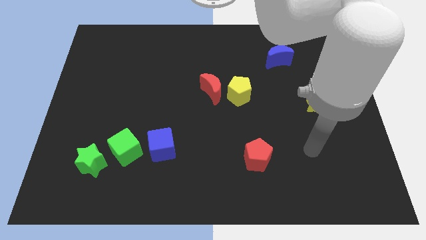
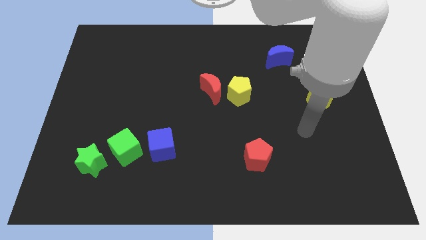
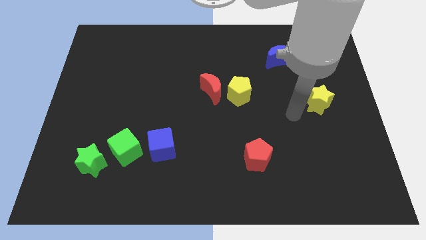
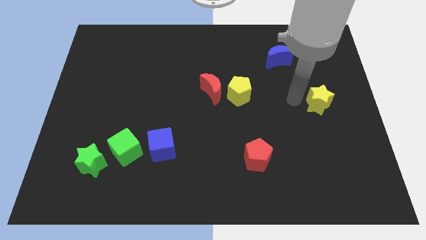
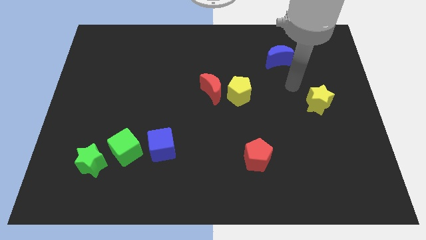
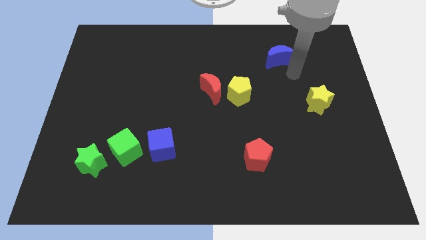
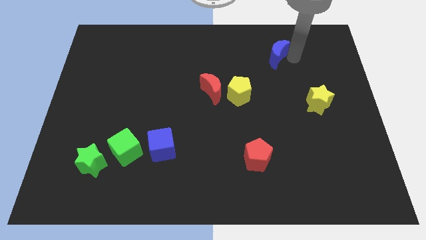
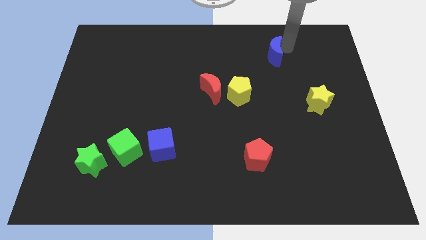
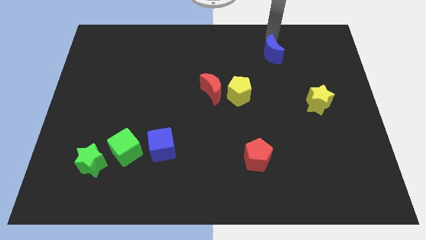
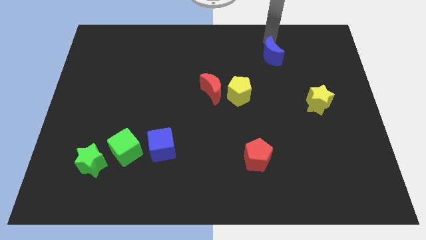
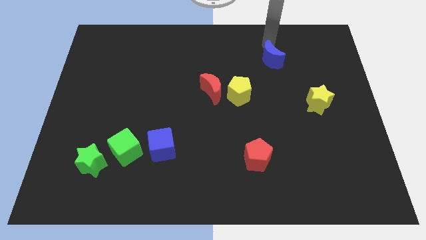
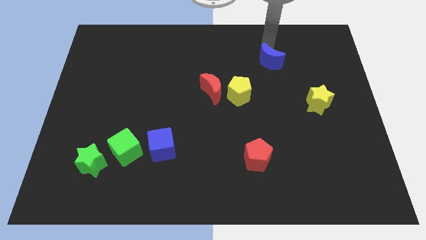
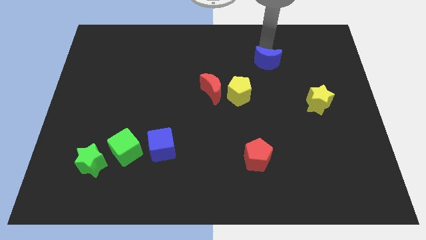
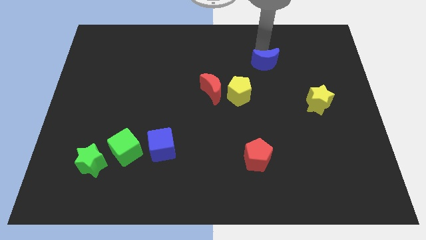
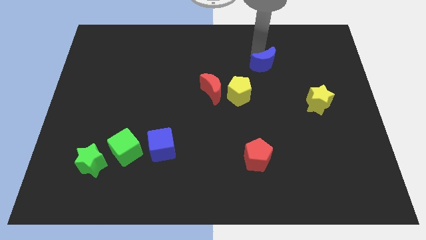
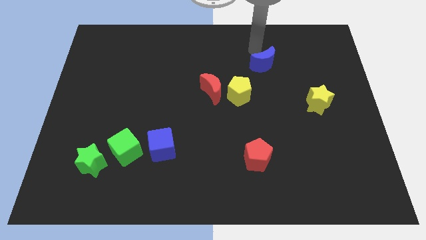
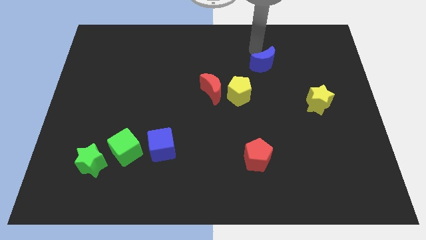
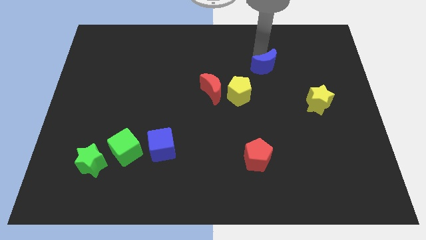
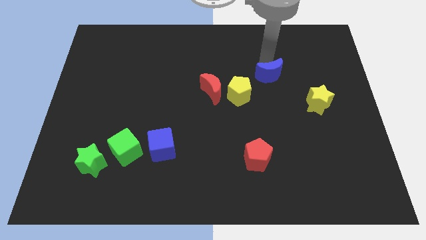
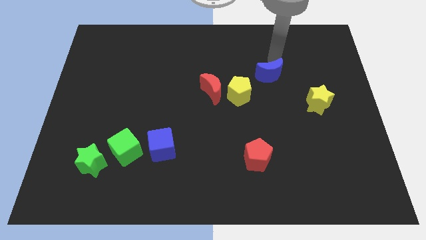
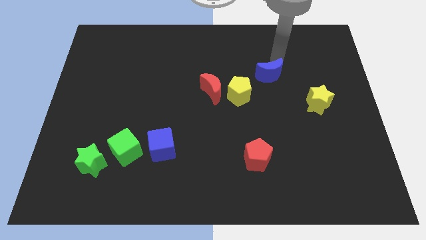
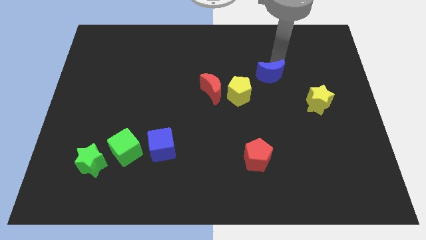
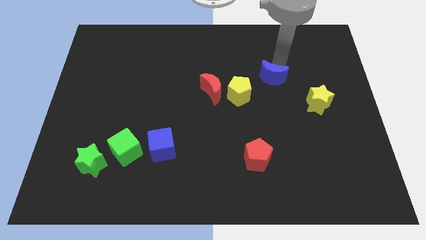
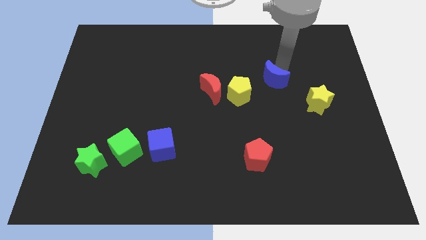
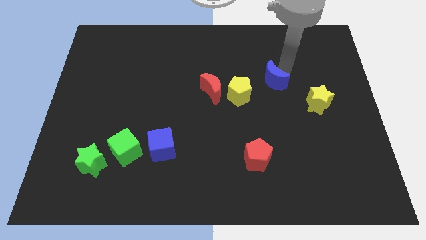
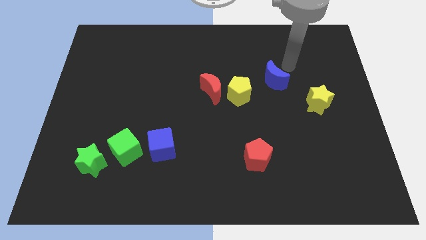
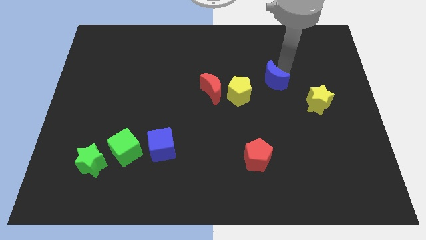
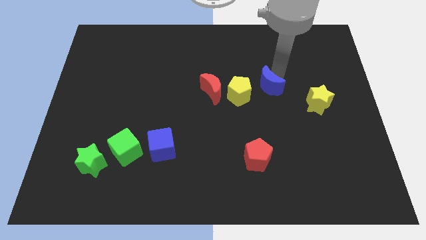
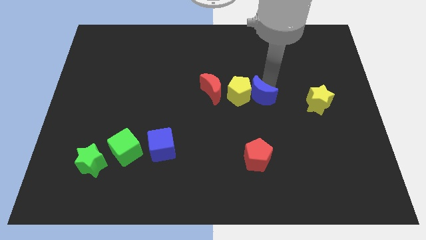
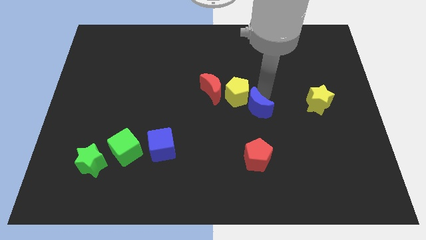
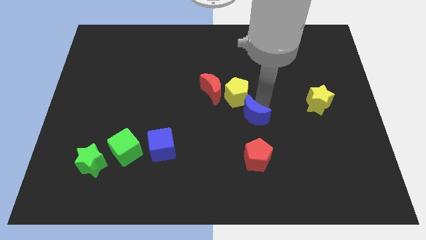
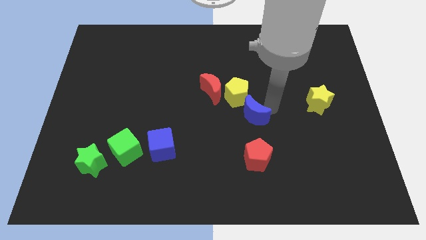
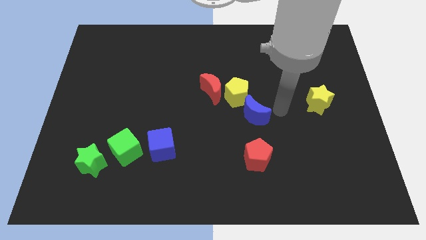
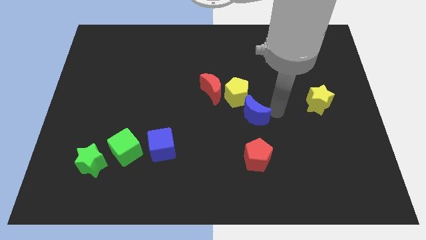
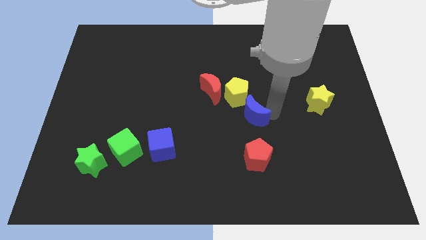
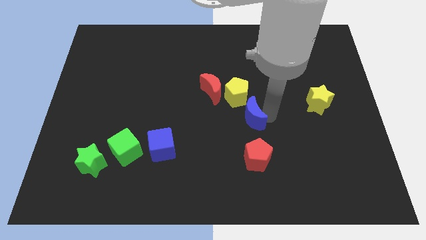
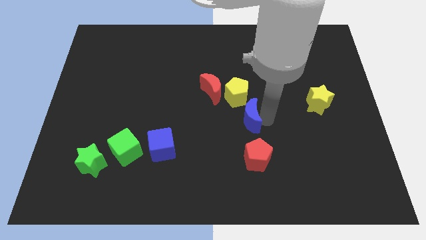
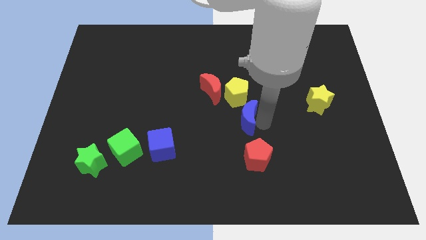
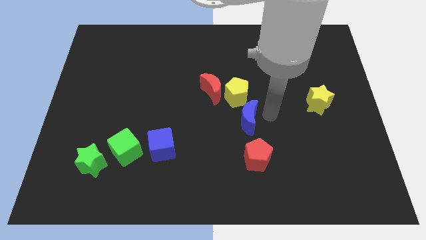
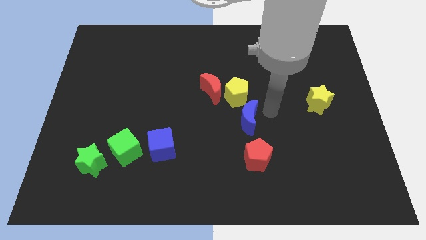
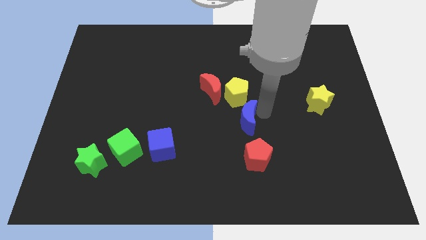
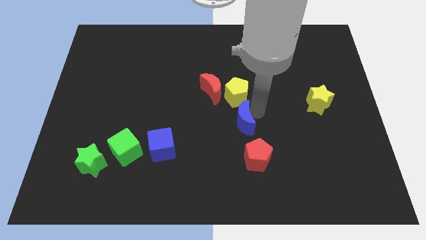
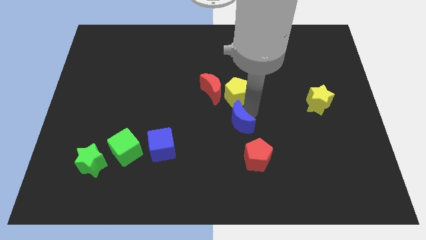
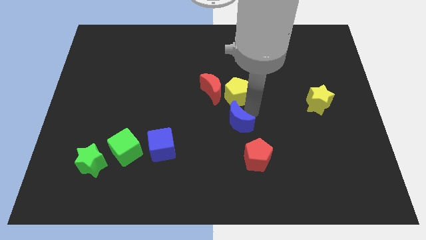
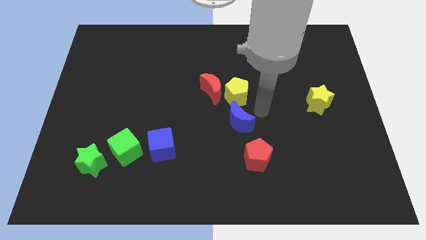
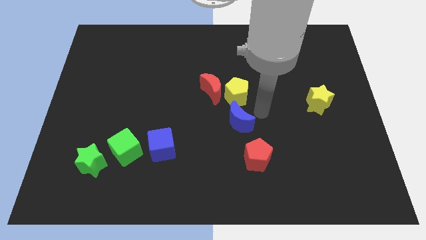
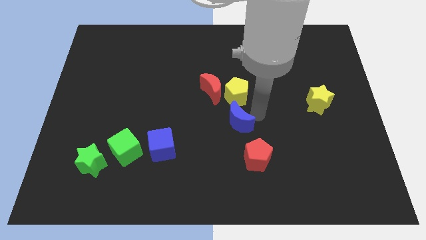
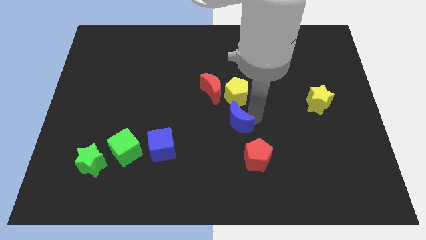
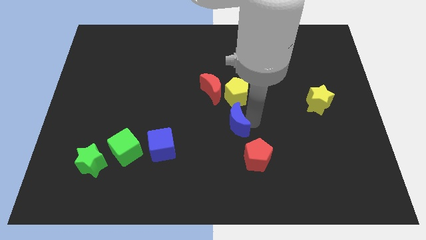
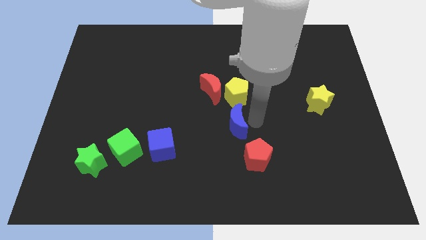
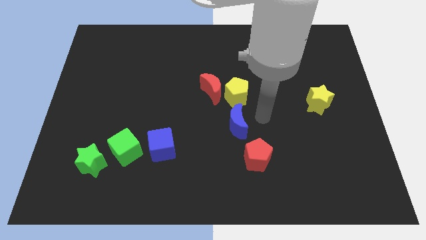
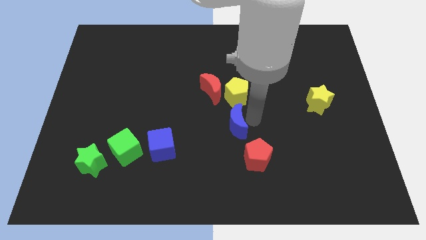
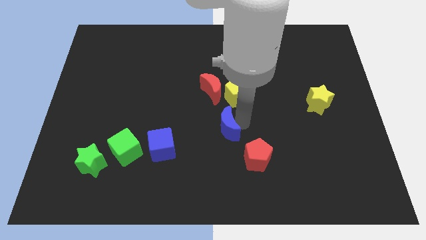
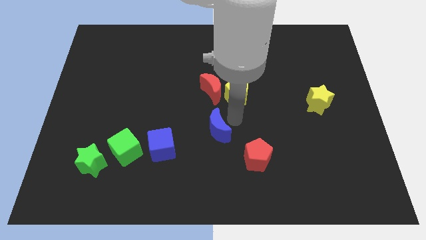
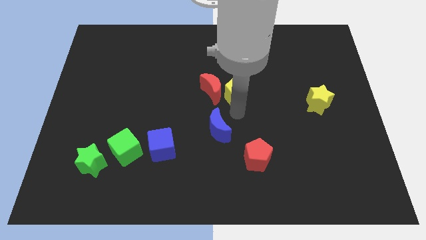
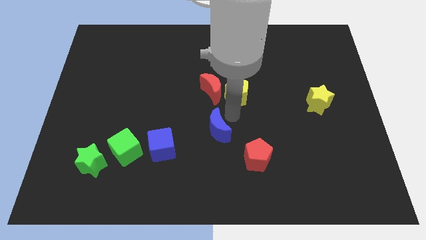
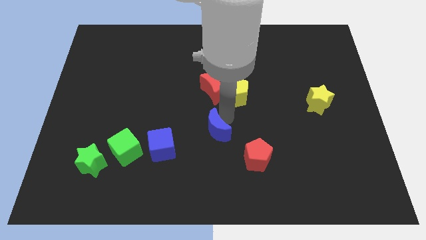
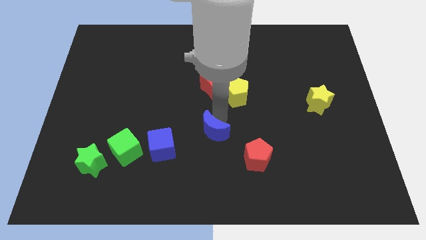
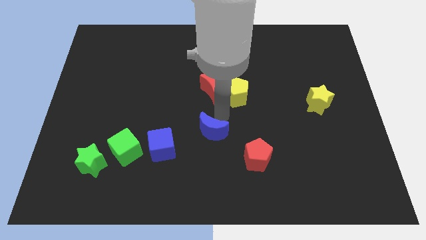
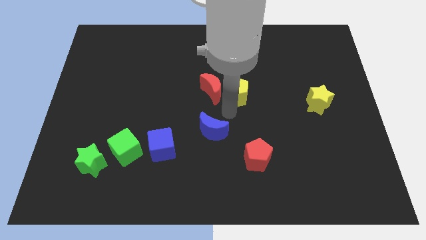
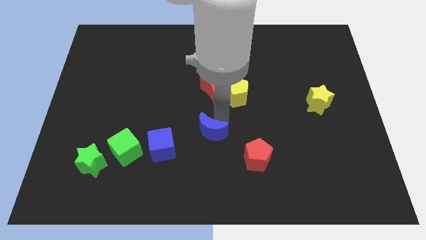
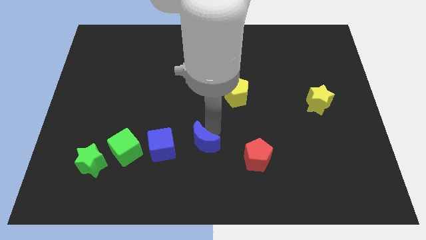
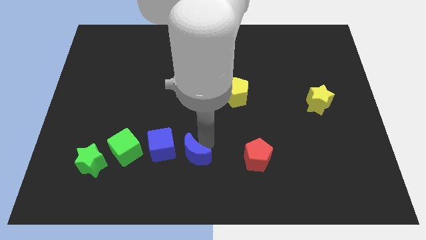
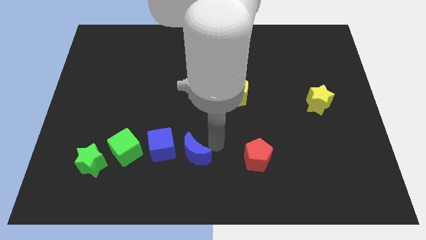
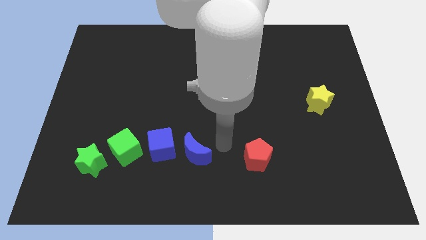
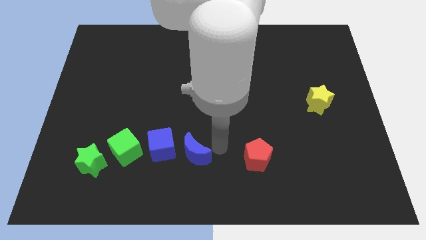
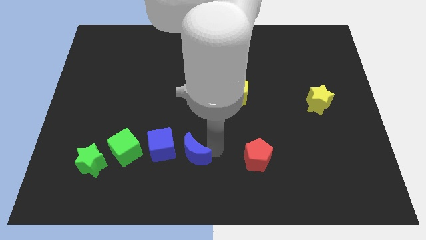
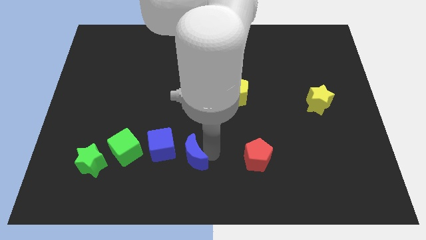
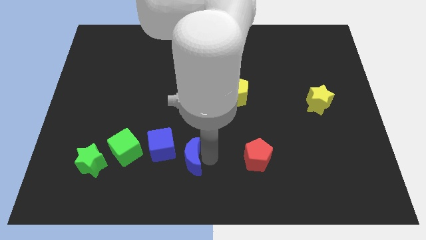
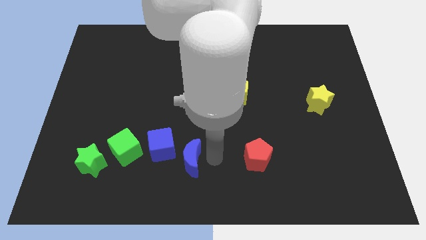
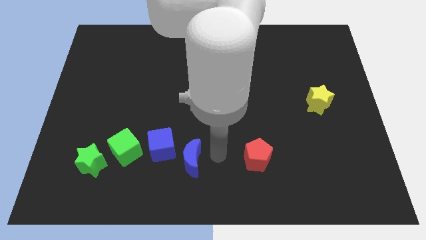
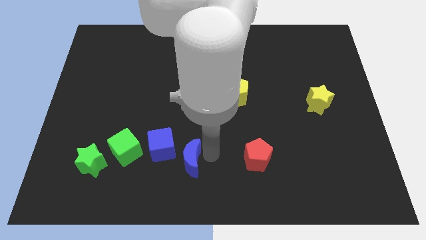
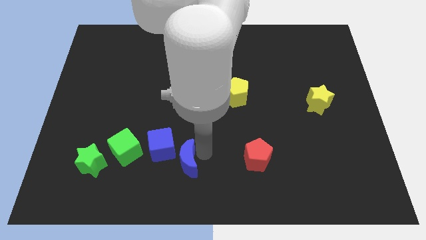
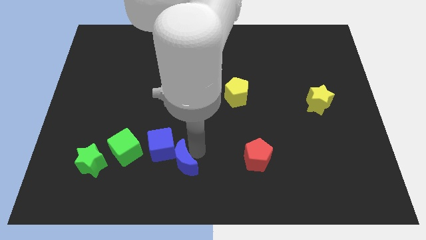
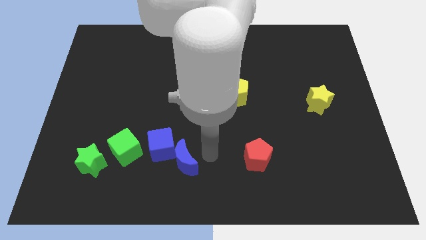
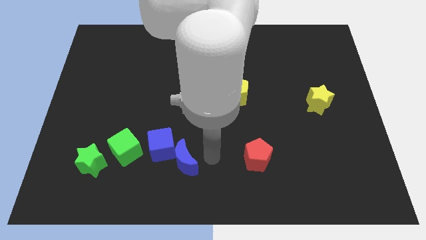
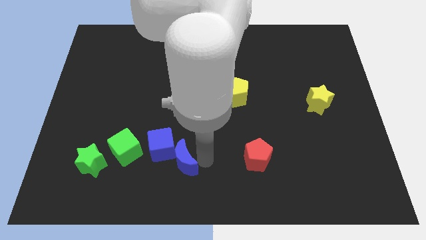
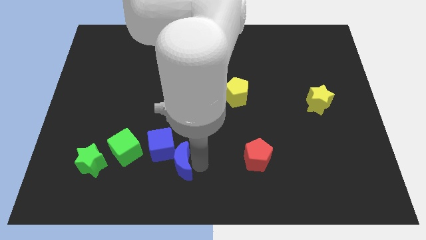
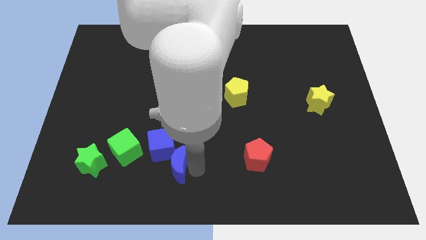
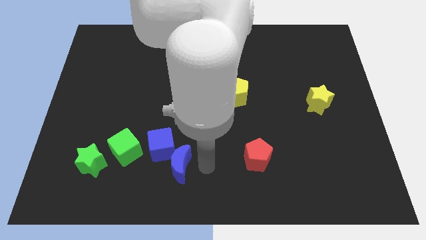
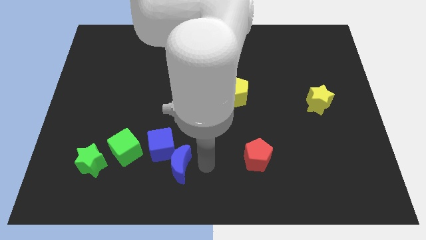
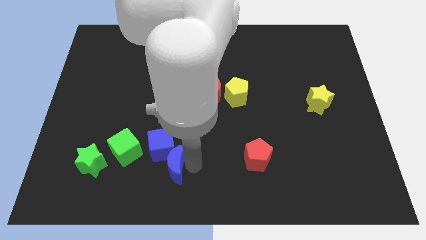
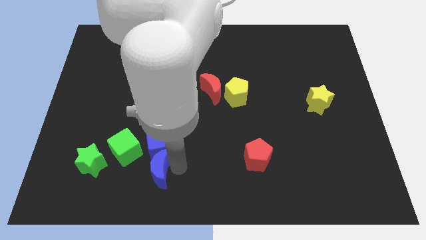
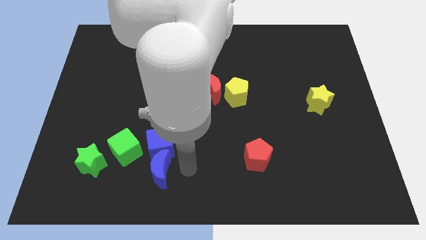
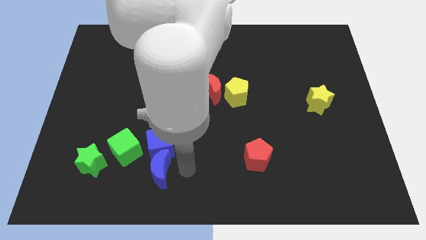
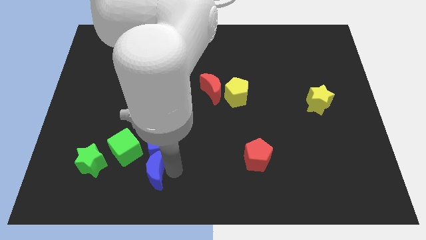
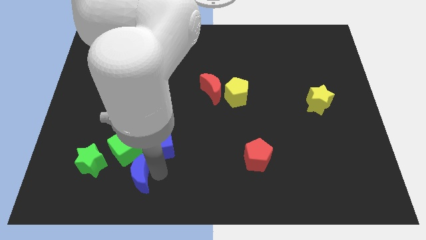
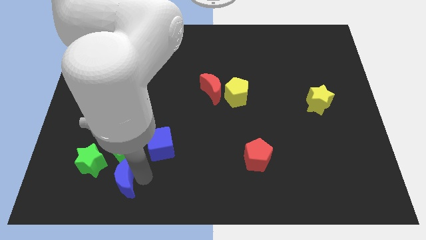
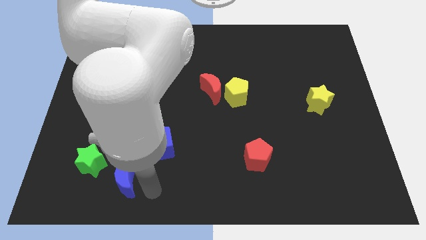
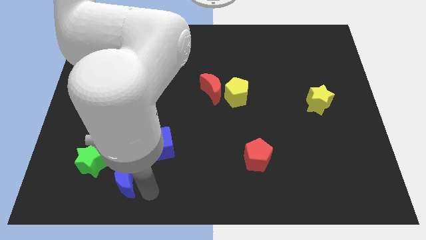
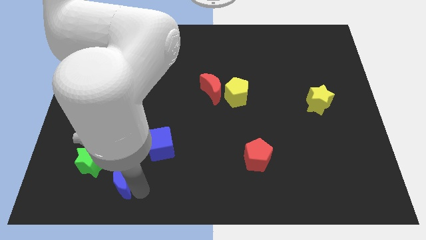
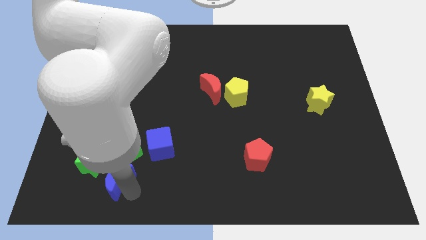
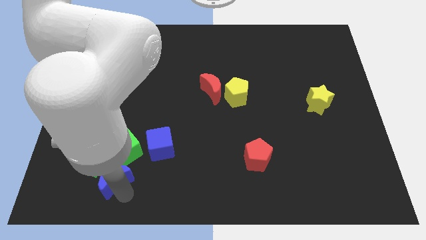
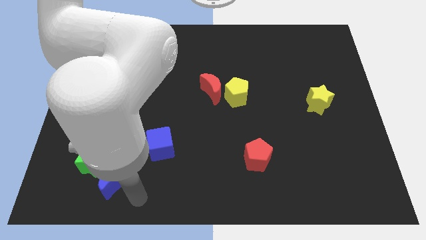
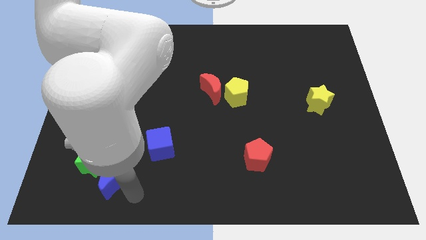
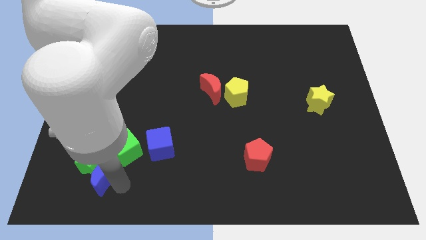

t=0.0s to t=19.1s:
push the blue moon close to the green star
